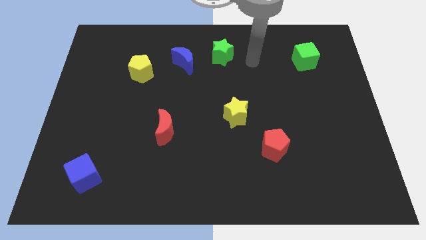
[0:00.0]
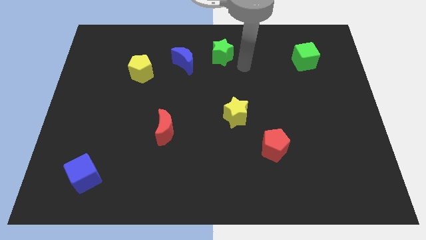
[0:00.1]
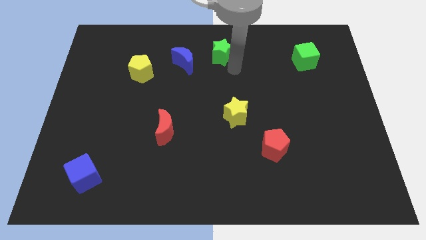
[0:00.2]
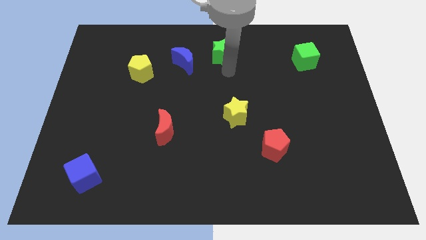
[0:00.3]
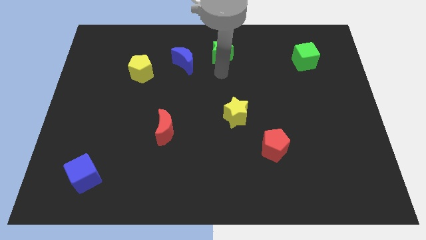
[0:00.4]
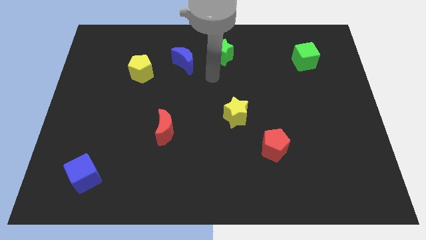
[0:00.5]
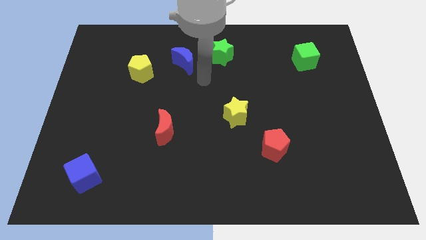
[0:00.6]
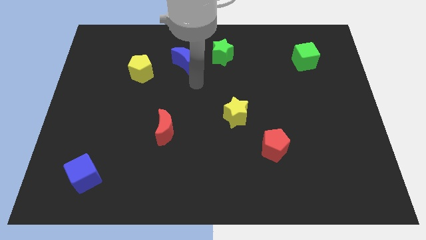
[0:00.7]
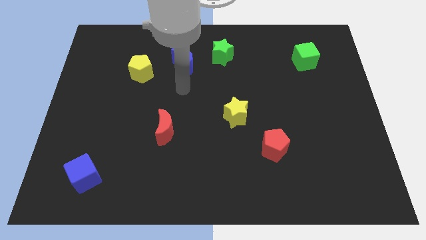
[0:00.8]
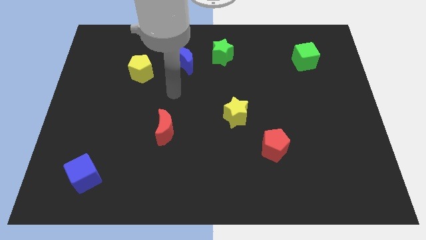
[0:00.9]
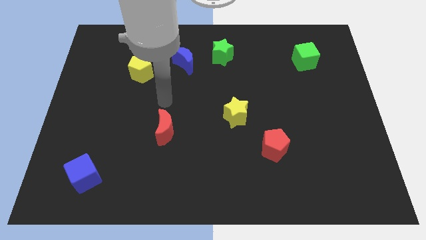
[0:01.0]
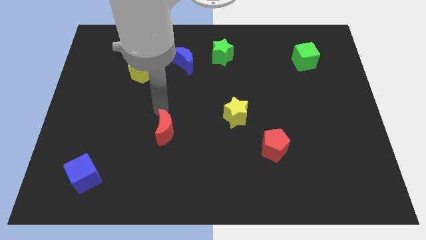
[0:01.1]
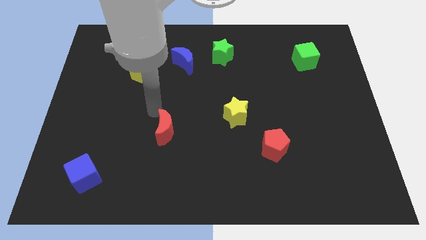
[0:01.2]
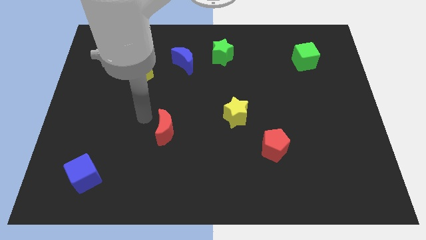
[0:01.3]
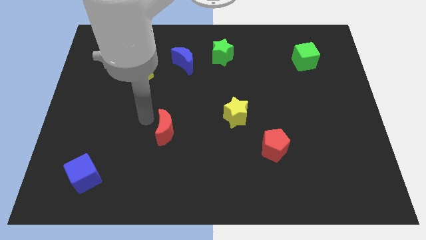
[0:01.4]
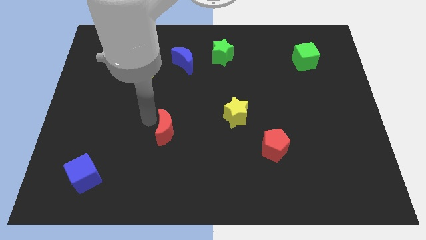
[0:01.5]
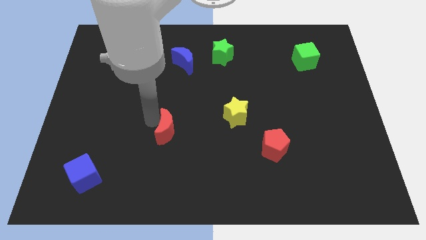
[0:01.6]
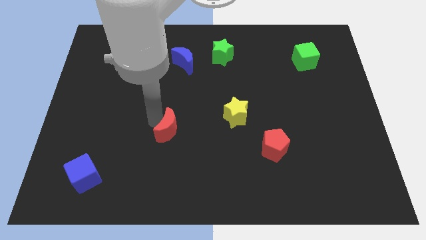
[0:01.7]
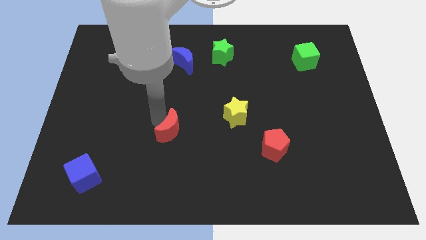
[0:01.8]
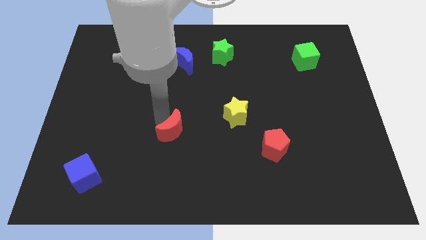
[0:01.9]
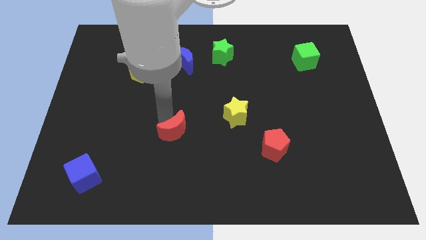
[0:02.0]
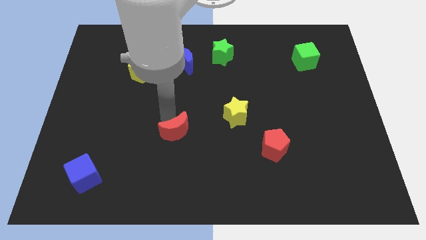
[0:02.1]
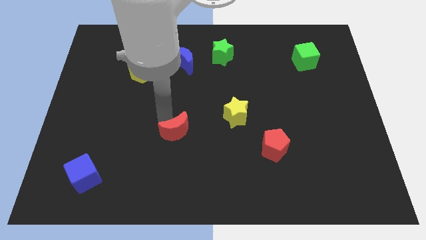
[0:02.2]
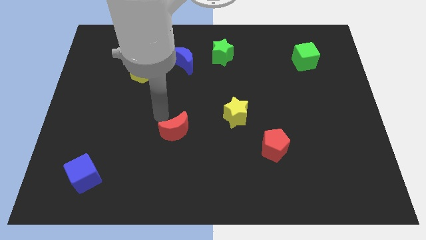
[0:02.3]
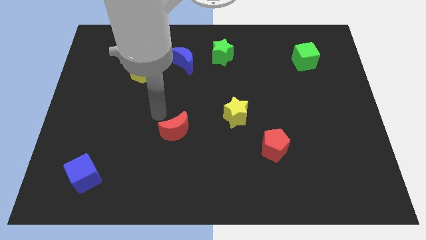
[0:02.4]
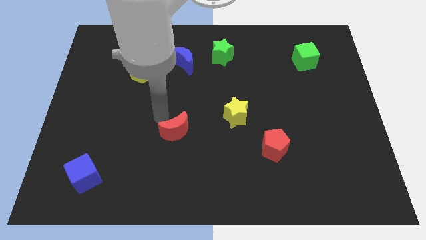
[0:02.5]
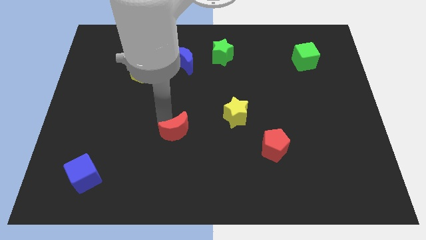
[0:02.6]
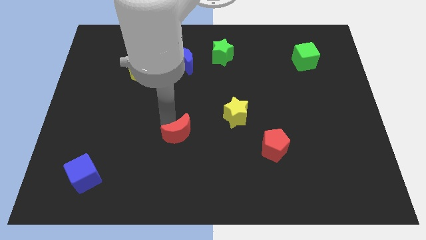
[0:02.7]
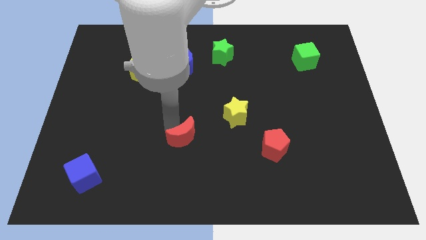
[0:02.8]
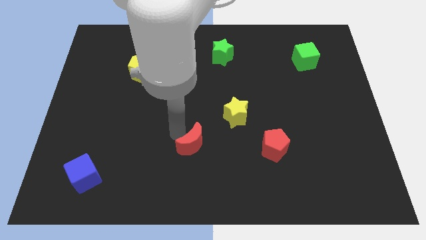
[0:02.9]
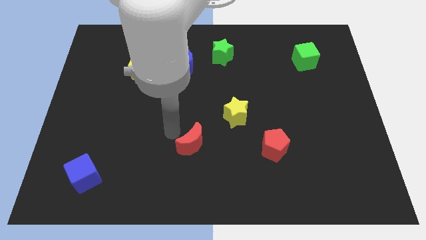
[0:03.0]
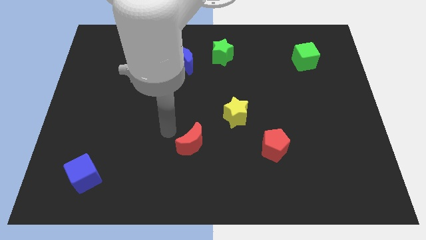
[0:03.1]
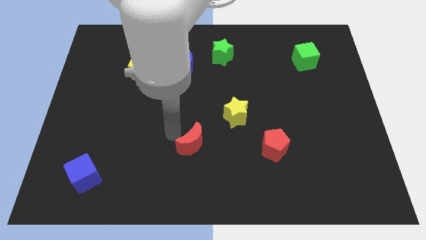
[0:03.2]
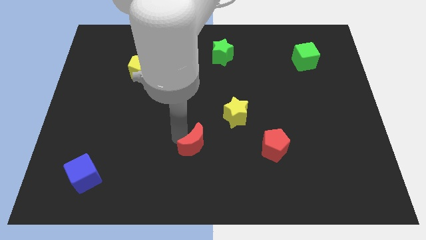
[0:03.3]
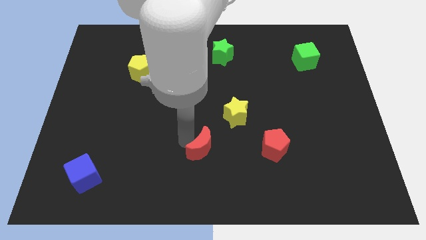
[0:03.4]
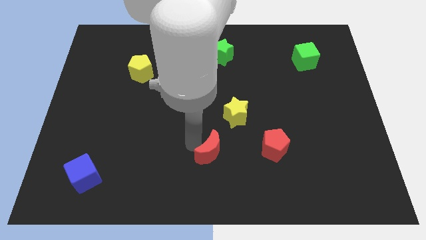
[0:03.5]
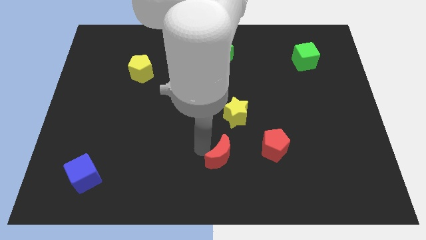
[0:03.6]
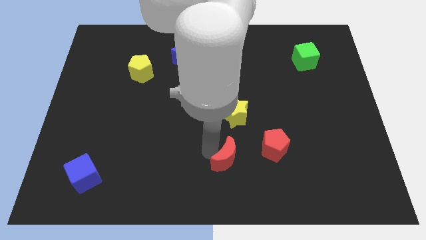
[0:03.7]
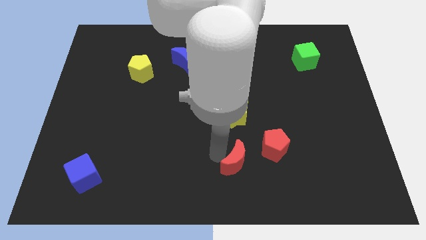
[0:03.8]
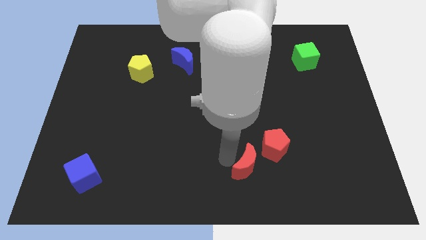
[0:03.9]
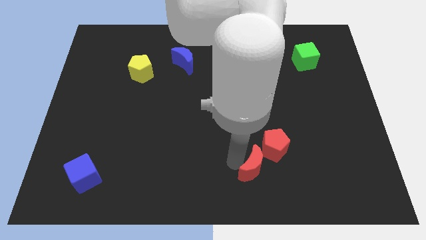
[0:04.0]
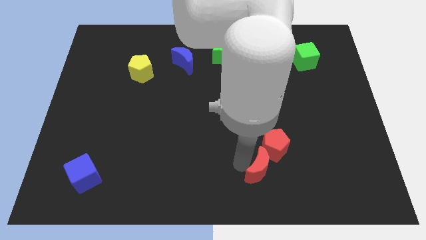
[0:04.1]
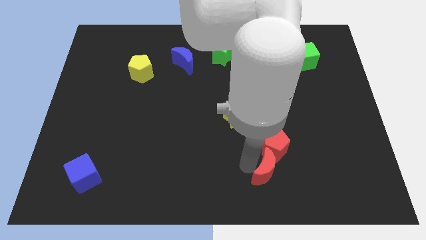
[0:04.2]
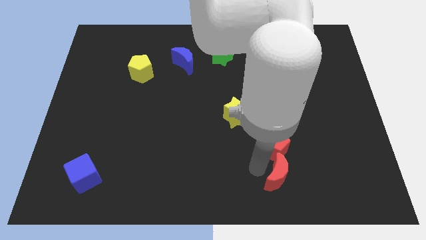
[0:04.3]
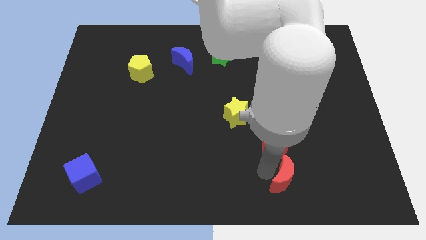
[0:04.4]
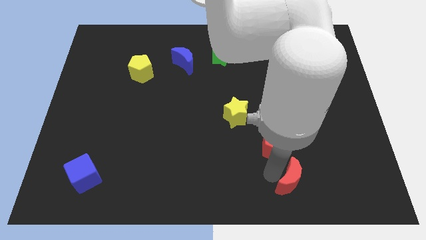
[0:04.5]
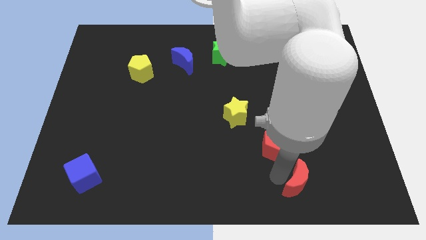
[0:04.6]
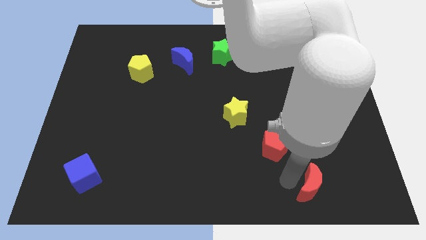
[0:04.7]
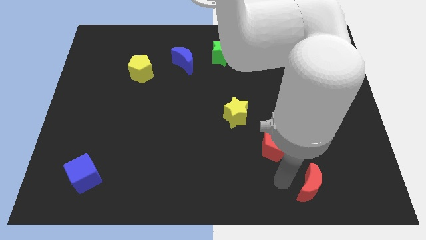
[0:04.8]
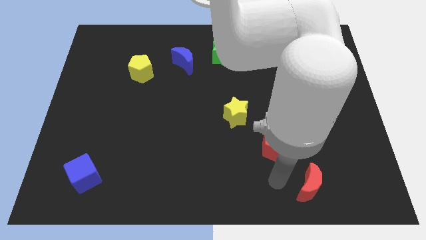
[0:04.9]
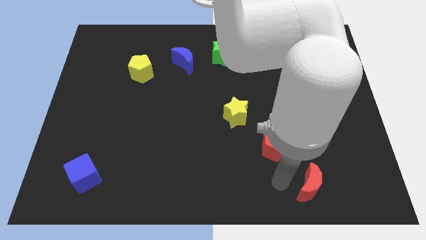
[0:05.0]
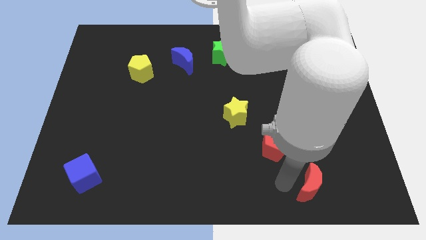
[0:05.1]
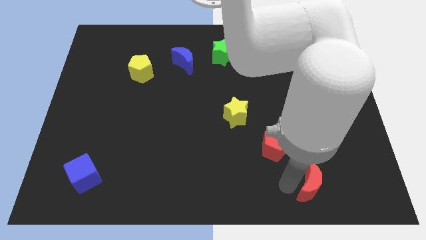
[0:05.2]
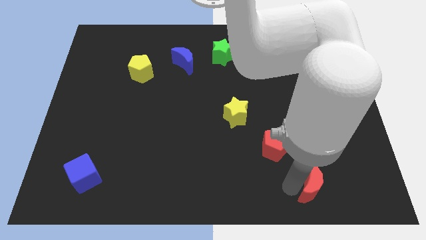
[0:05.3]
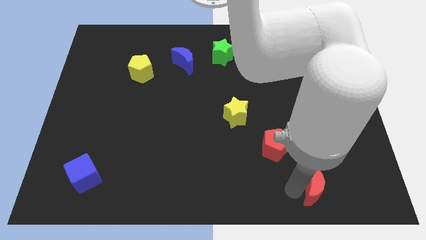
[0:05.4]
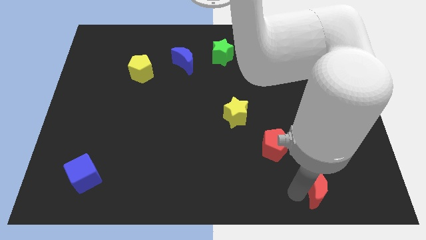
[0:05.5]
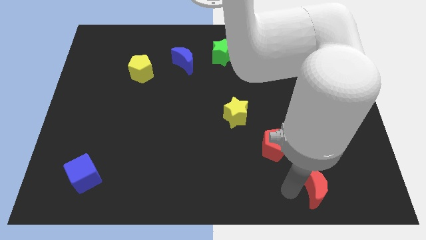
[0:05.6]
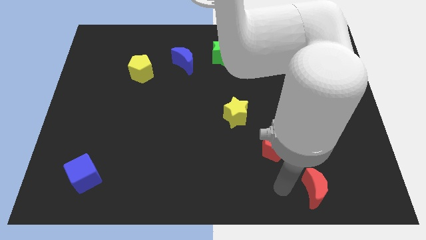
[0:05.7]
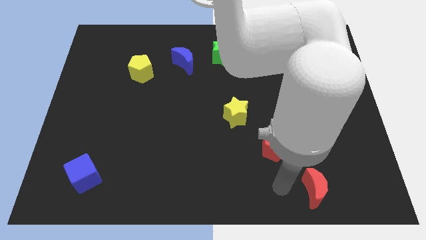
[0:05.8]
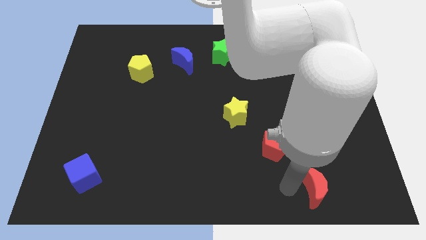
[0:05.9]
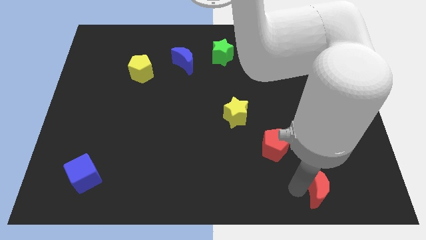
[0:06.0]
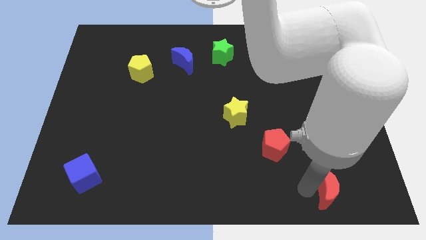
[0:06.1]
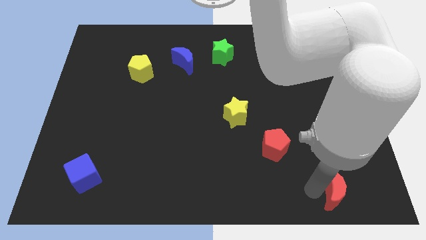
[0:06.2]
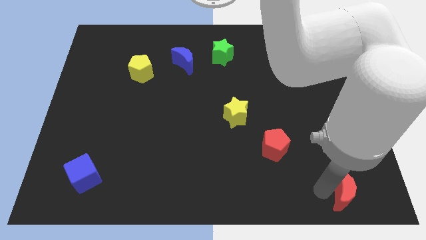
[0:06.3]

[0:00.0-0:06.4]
slide the red moon to the bottom right corner

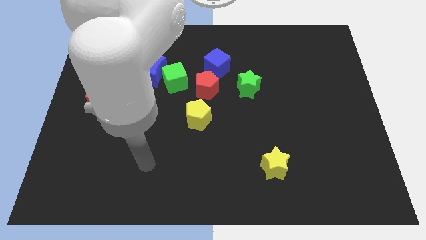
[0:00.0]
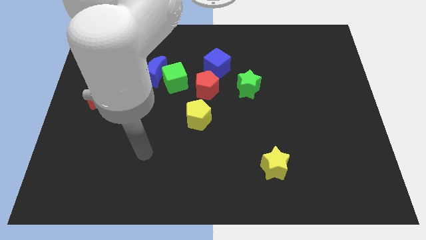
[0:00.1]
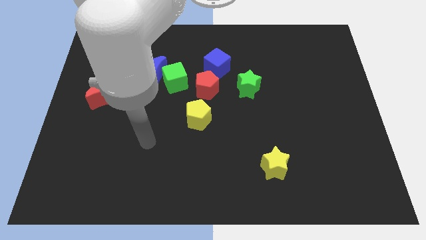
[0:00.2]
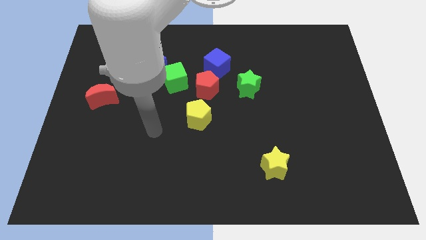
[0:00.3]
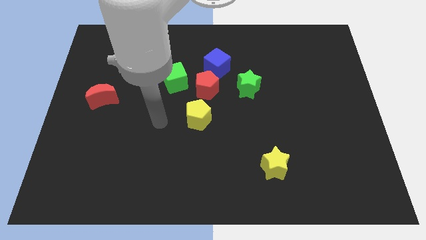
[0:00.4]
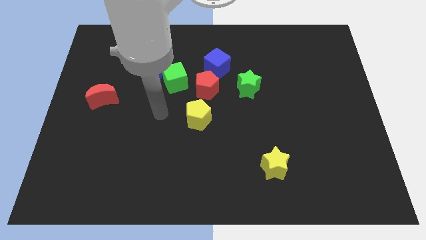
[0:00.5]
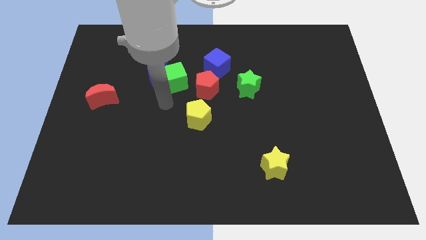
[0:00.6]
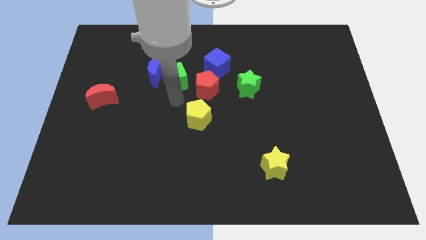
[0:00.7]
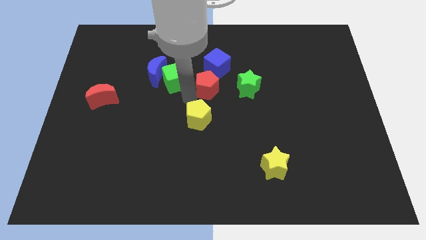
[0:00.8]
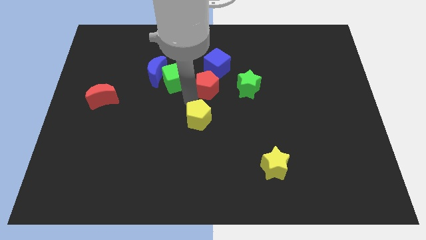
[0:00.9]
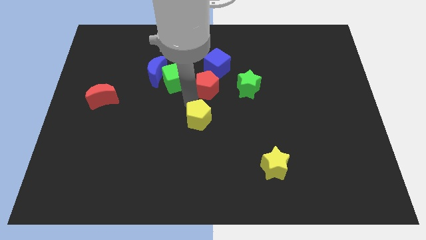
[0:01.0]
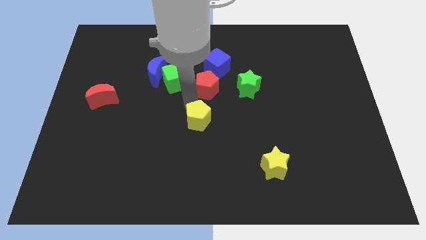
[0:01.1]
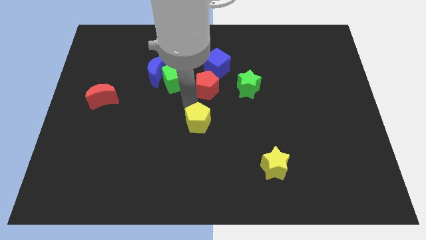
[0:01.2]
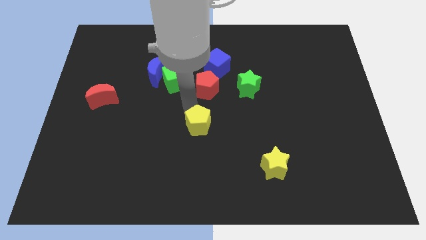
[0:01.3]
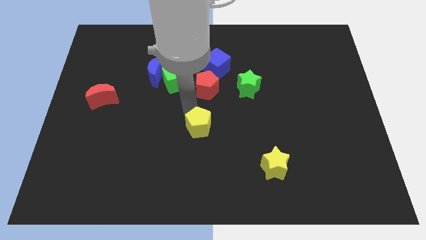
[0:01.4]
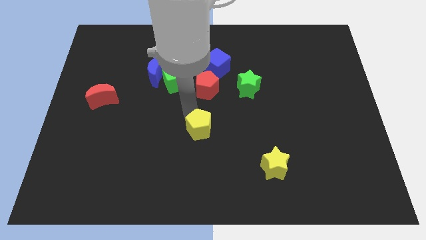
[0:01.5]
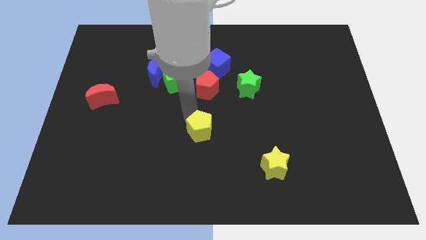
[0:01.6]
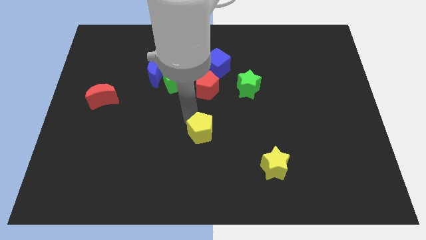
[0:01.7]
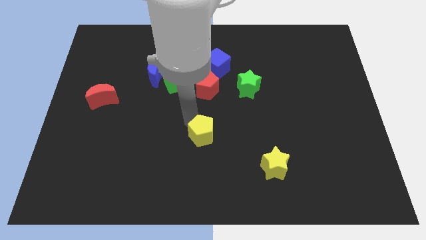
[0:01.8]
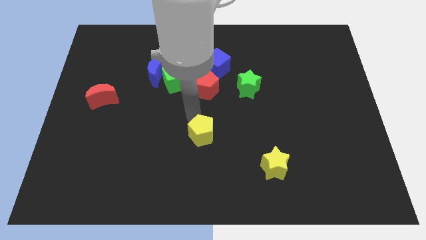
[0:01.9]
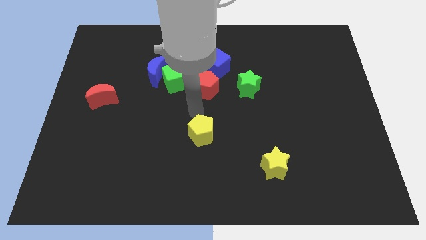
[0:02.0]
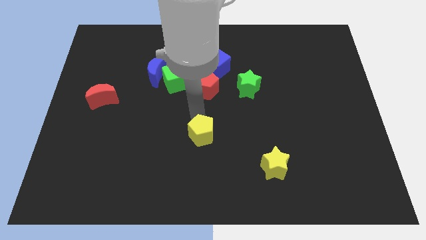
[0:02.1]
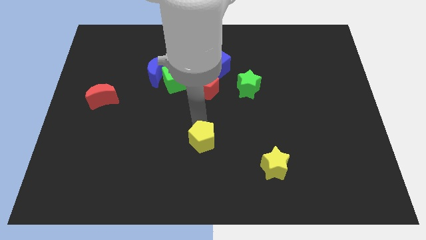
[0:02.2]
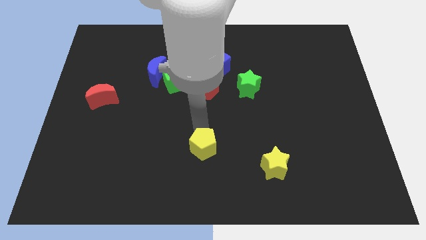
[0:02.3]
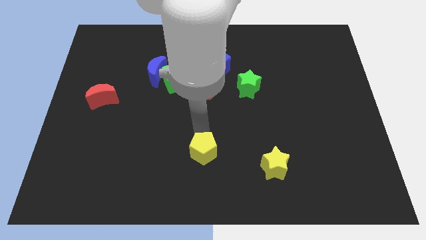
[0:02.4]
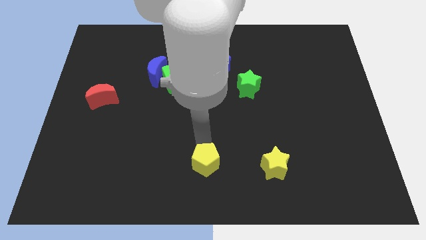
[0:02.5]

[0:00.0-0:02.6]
put the yellow pentagon to the bottom
